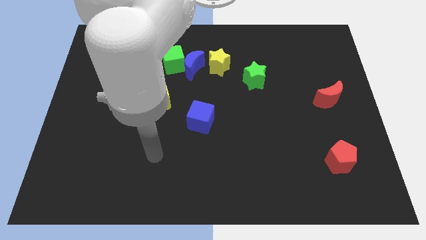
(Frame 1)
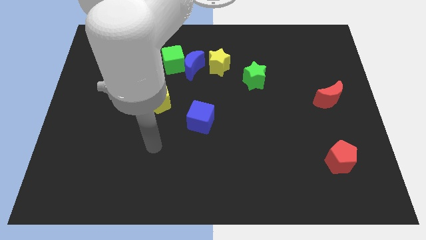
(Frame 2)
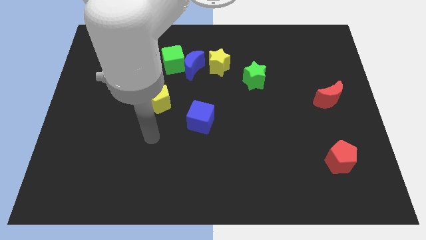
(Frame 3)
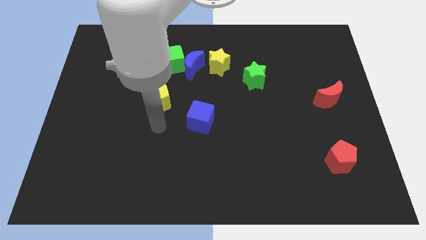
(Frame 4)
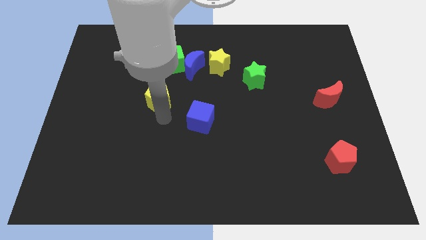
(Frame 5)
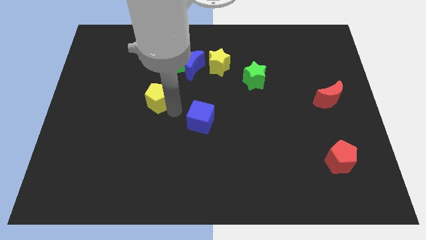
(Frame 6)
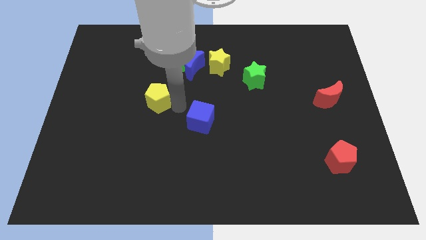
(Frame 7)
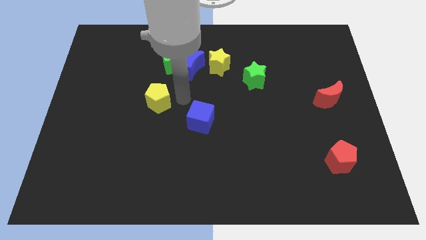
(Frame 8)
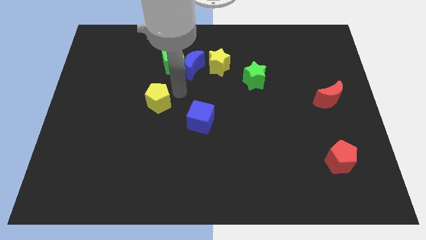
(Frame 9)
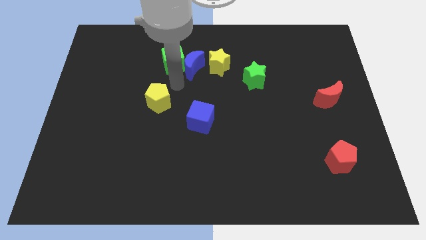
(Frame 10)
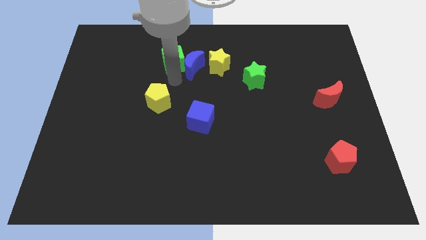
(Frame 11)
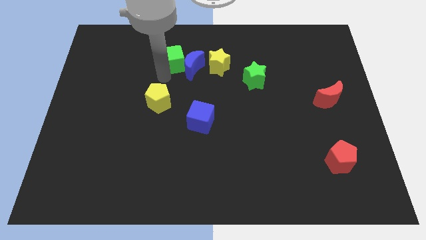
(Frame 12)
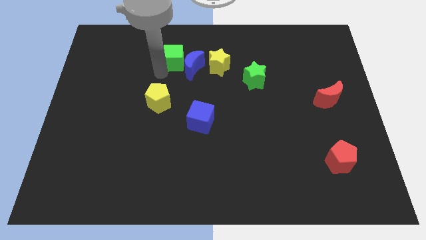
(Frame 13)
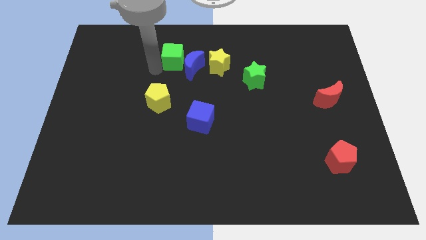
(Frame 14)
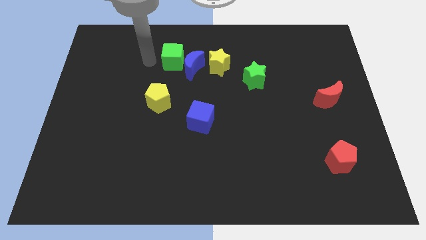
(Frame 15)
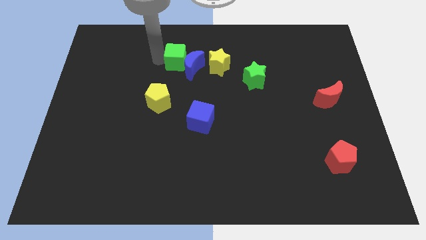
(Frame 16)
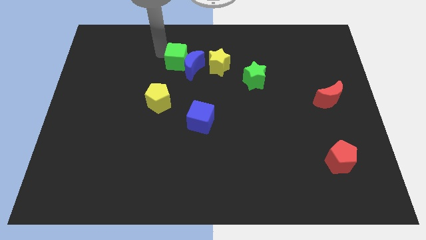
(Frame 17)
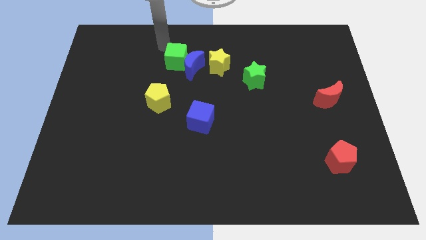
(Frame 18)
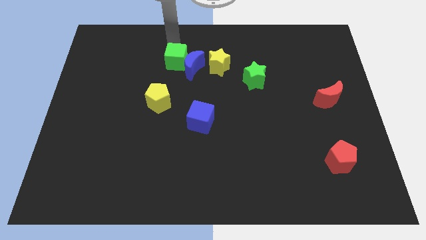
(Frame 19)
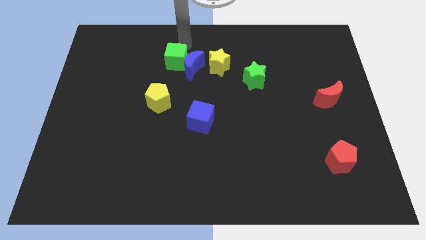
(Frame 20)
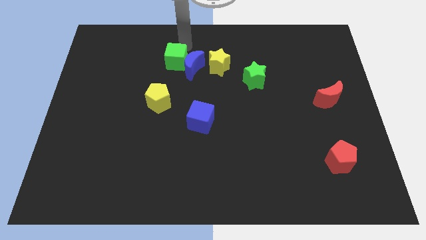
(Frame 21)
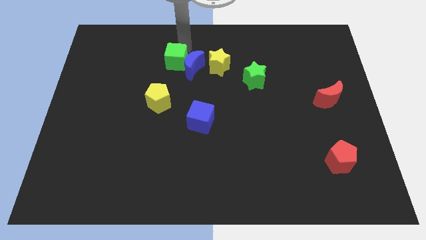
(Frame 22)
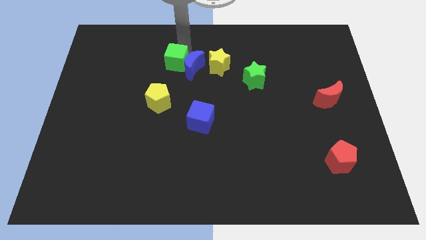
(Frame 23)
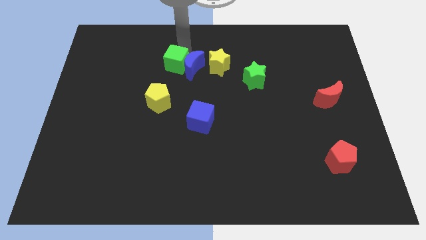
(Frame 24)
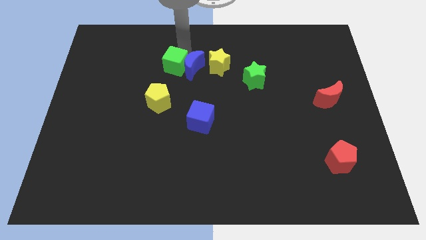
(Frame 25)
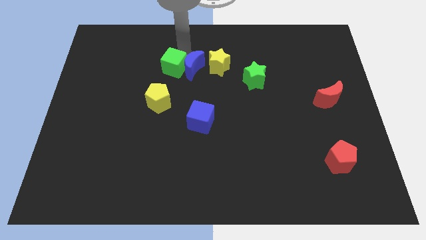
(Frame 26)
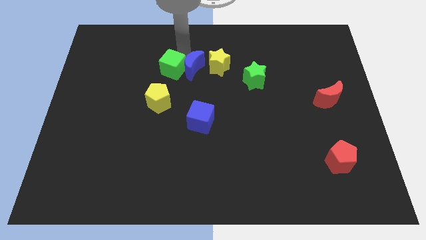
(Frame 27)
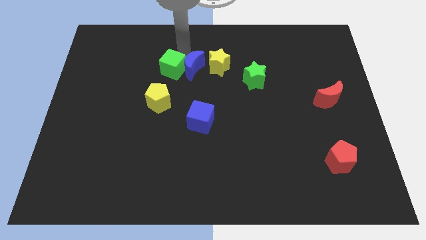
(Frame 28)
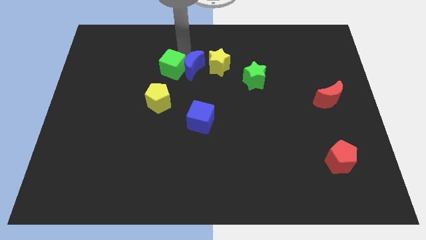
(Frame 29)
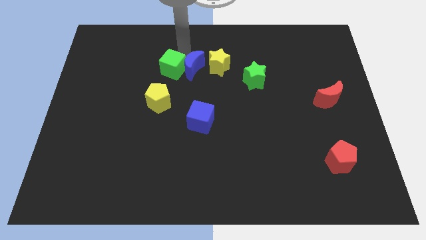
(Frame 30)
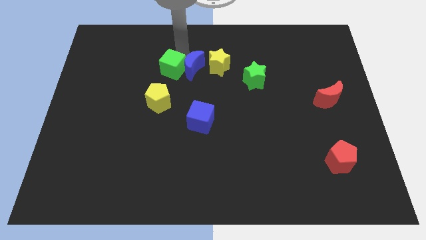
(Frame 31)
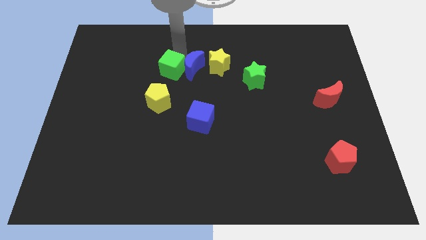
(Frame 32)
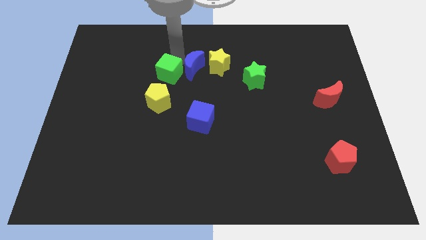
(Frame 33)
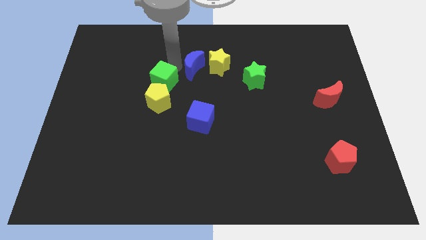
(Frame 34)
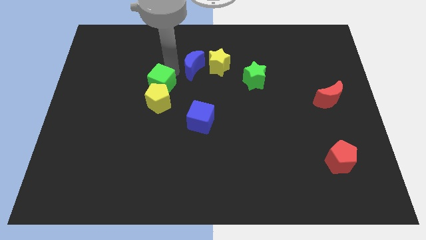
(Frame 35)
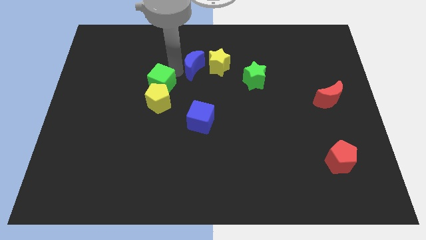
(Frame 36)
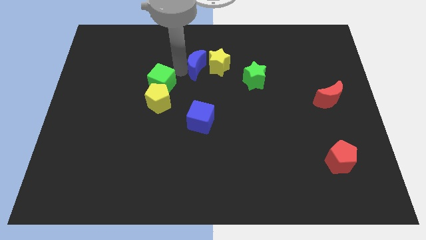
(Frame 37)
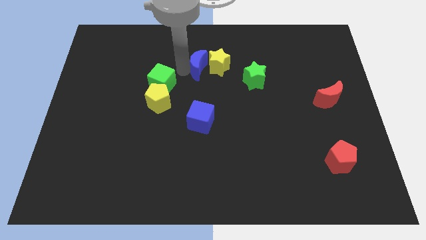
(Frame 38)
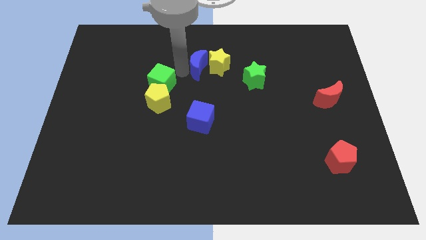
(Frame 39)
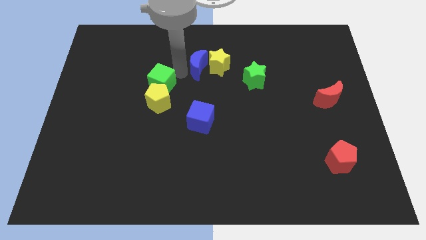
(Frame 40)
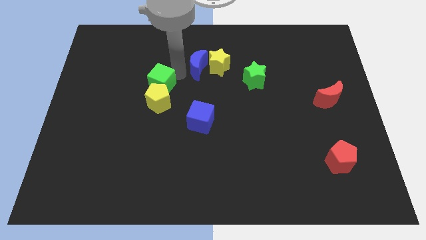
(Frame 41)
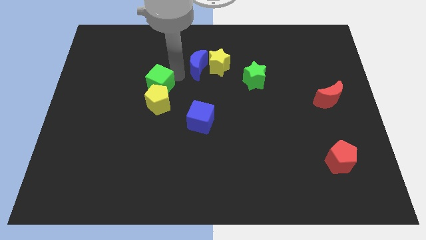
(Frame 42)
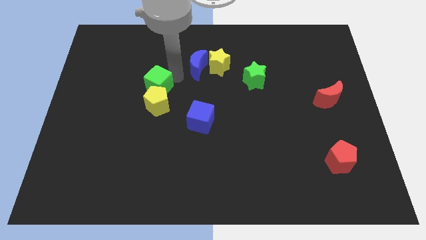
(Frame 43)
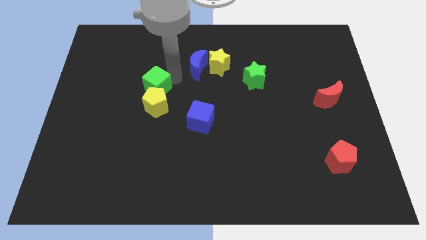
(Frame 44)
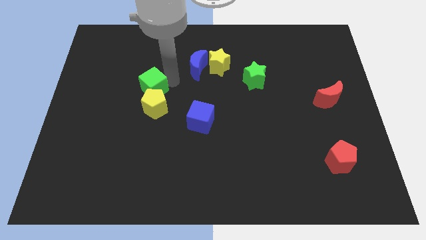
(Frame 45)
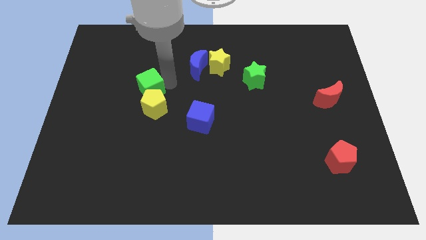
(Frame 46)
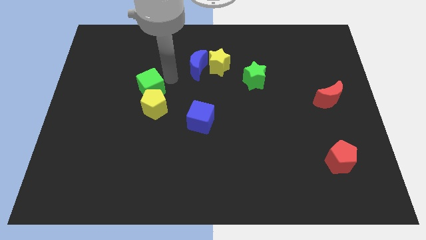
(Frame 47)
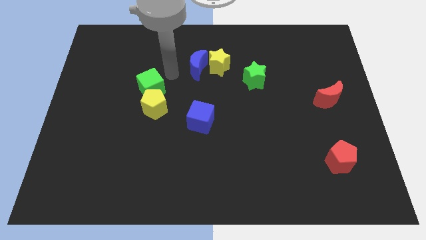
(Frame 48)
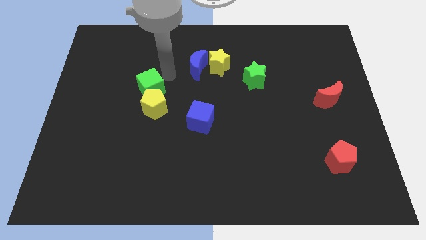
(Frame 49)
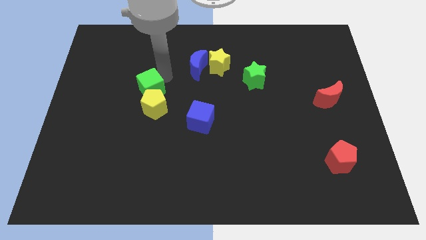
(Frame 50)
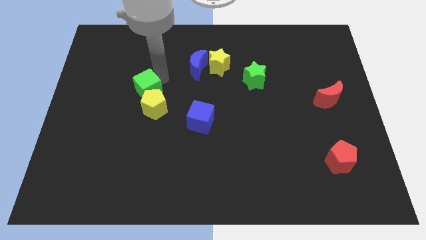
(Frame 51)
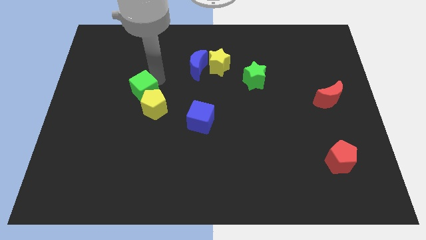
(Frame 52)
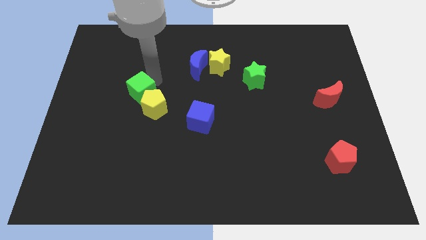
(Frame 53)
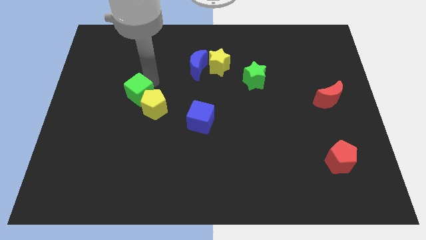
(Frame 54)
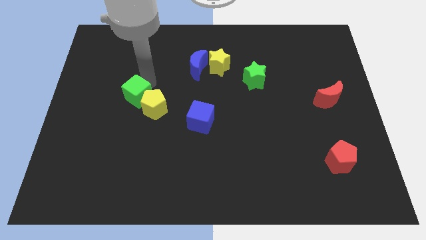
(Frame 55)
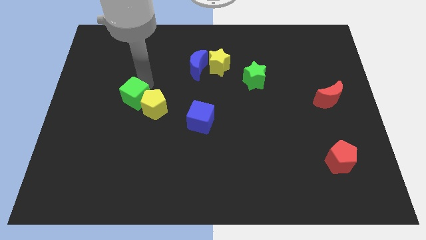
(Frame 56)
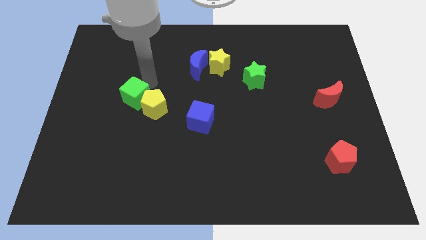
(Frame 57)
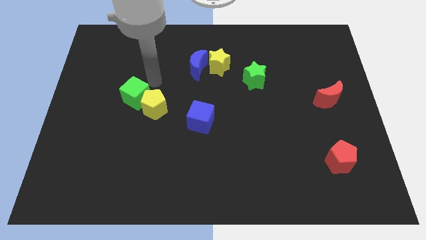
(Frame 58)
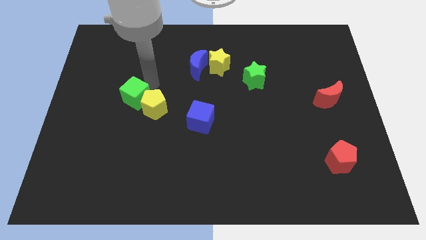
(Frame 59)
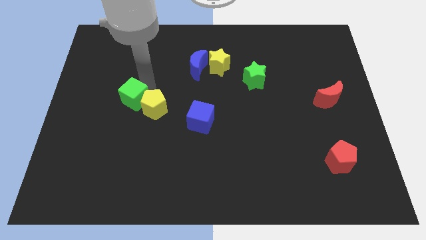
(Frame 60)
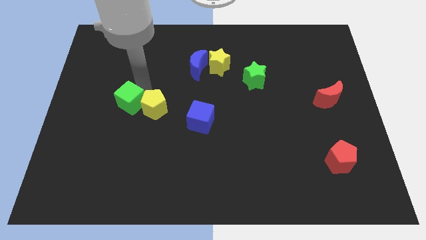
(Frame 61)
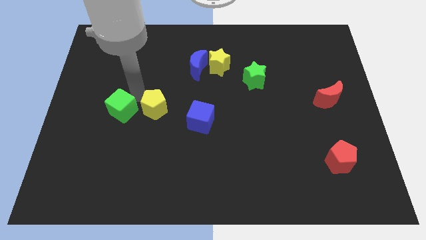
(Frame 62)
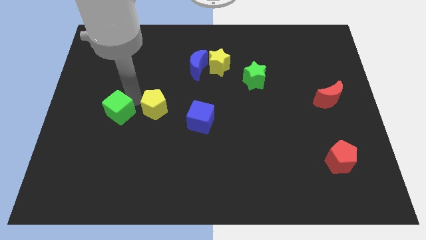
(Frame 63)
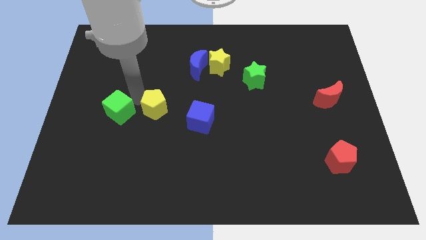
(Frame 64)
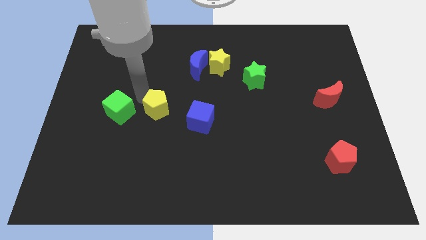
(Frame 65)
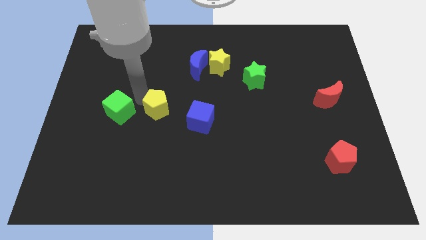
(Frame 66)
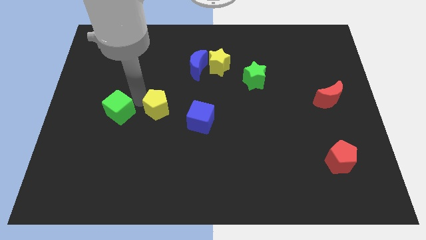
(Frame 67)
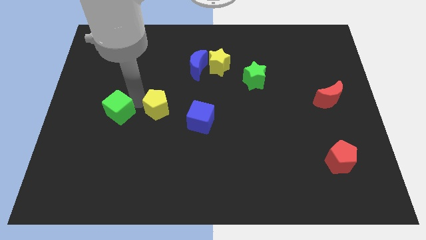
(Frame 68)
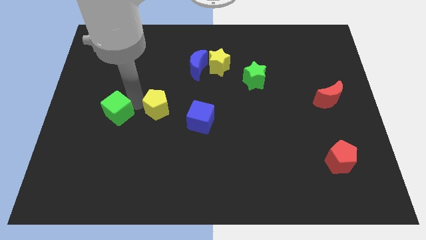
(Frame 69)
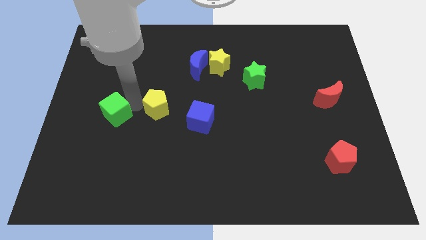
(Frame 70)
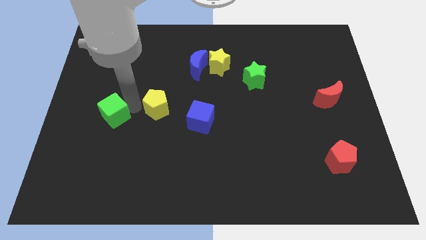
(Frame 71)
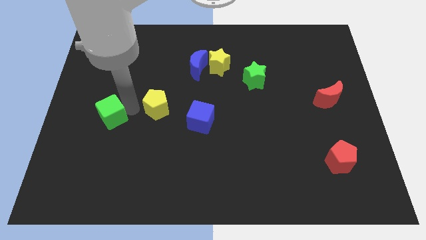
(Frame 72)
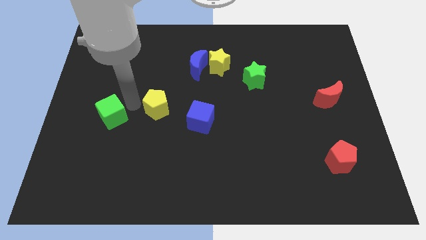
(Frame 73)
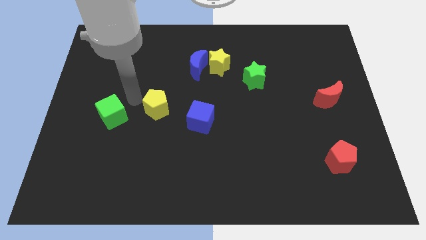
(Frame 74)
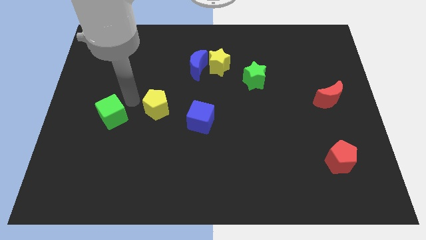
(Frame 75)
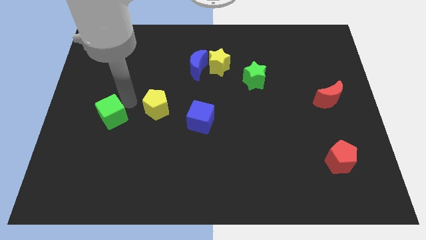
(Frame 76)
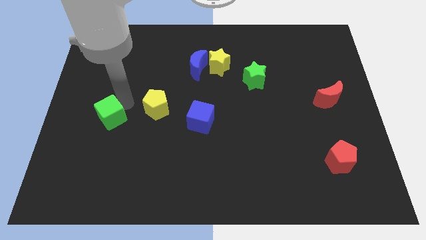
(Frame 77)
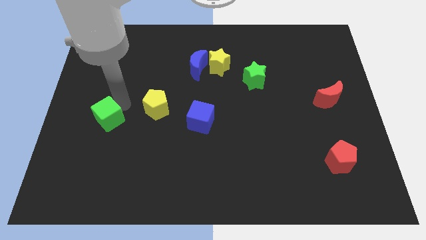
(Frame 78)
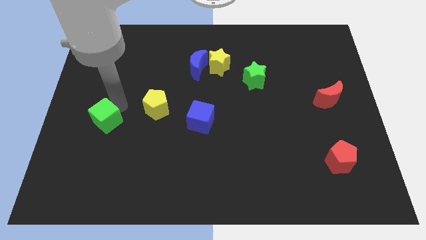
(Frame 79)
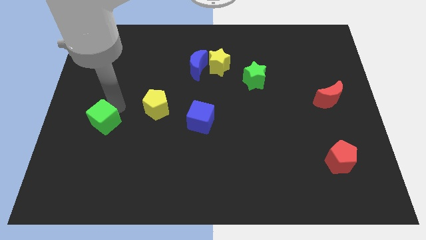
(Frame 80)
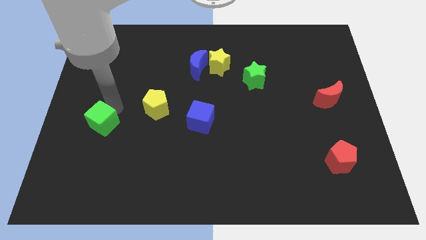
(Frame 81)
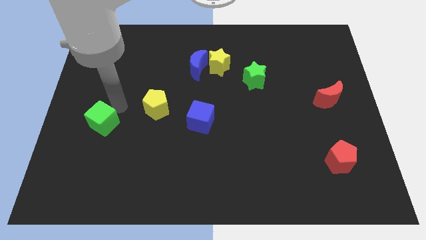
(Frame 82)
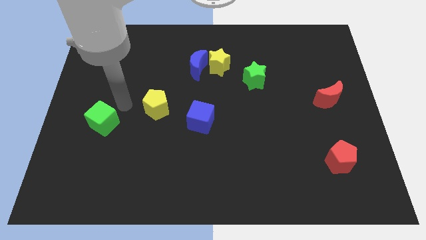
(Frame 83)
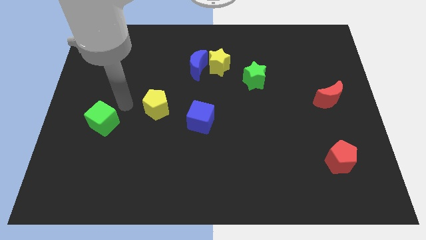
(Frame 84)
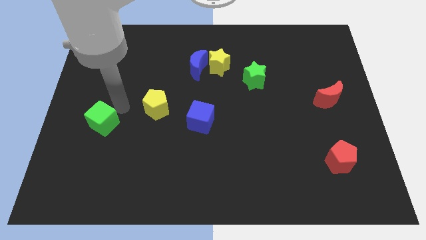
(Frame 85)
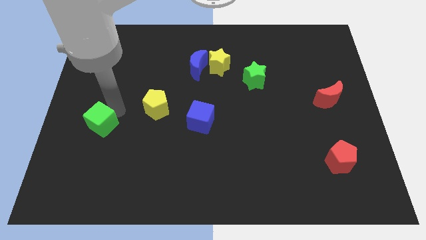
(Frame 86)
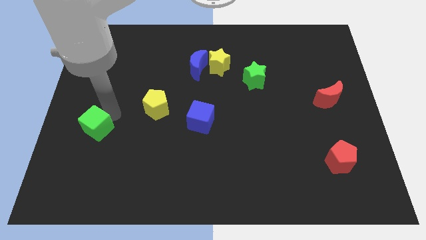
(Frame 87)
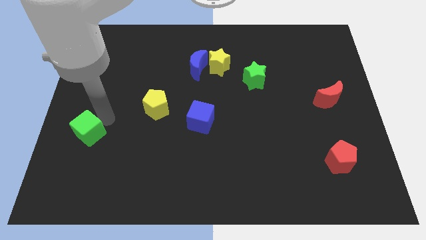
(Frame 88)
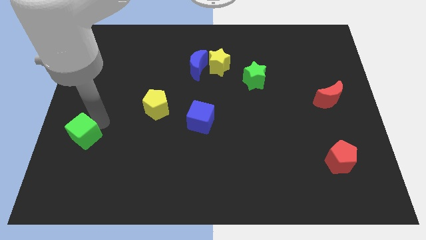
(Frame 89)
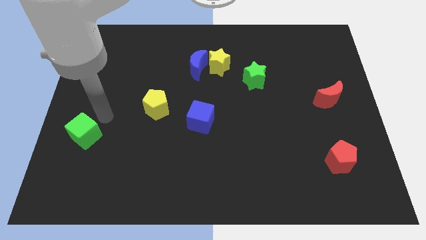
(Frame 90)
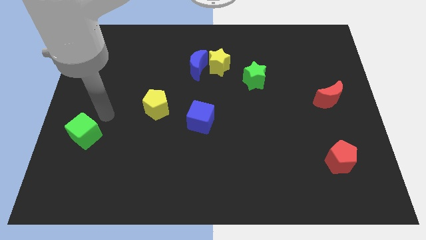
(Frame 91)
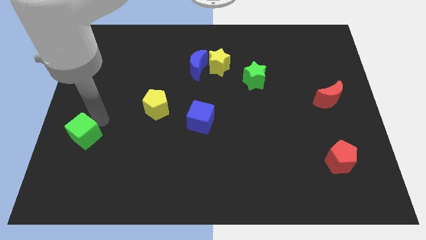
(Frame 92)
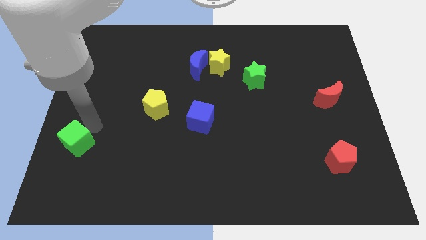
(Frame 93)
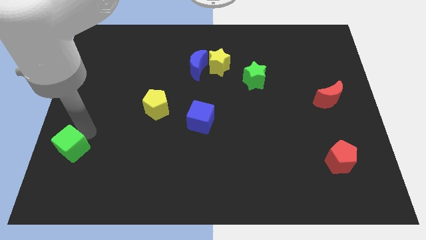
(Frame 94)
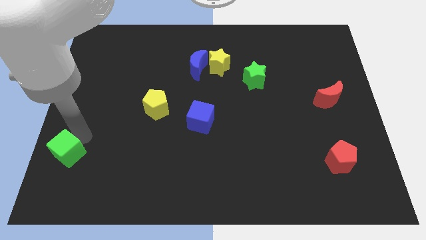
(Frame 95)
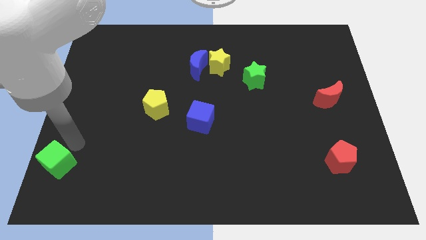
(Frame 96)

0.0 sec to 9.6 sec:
move the green cube to the bottom left of the board
